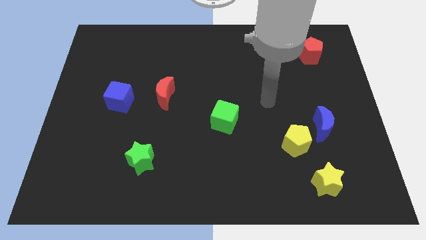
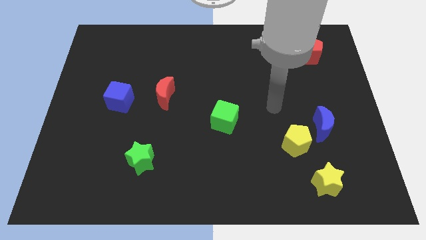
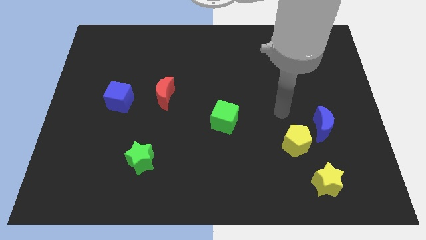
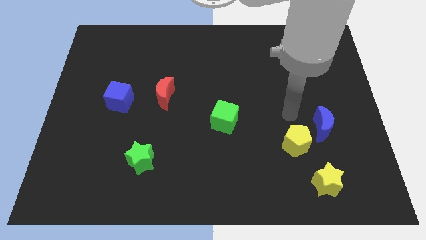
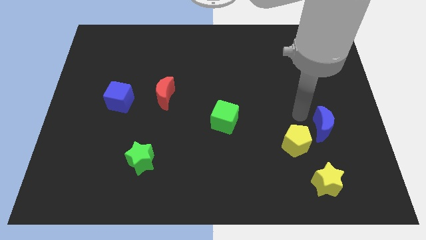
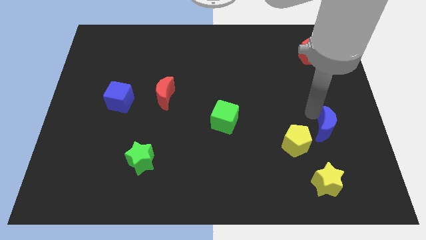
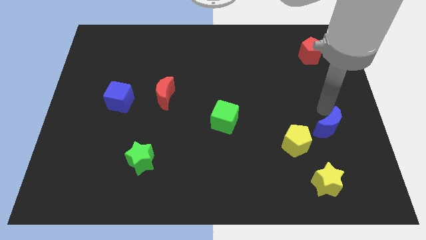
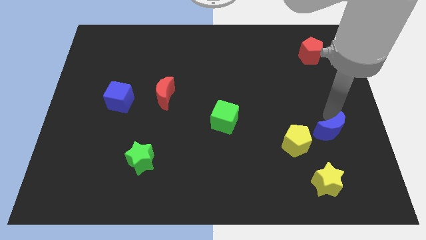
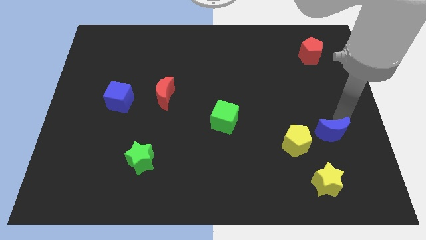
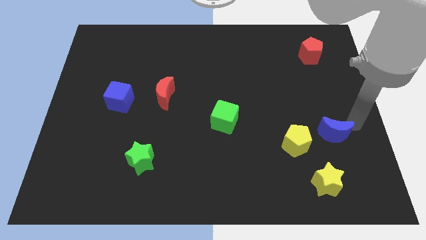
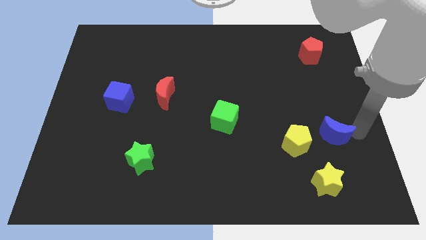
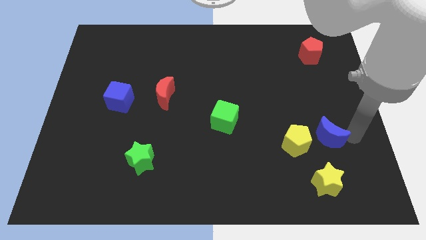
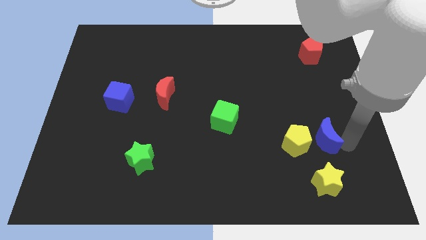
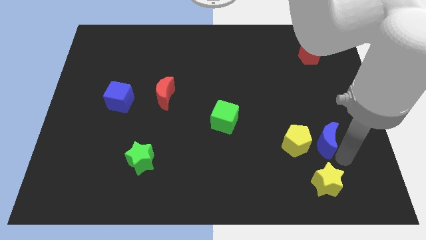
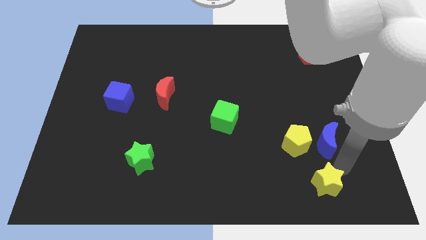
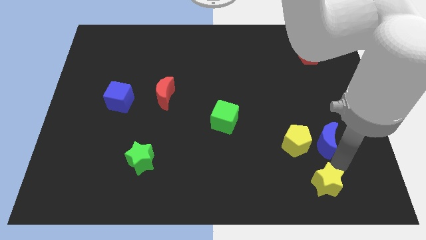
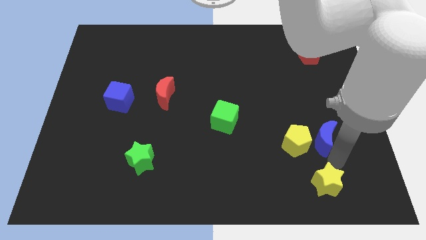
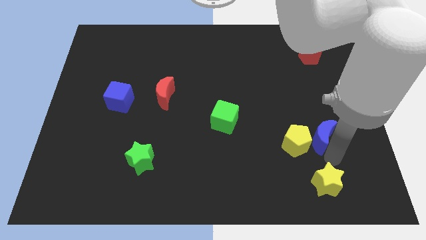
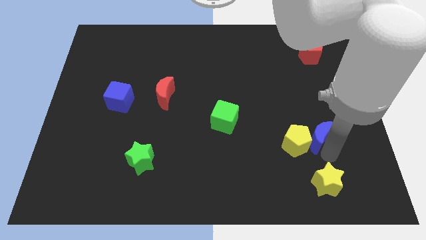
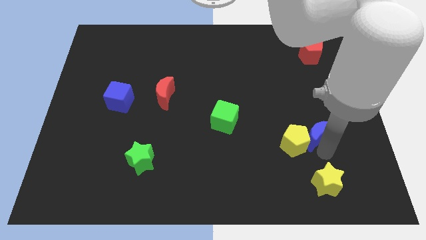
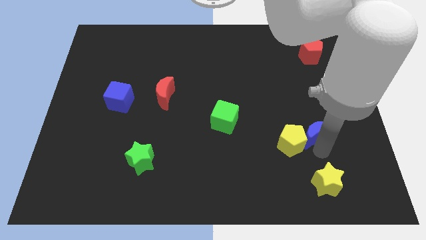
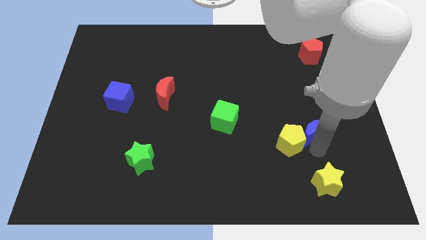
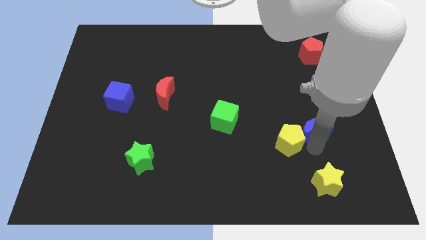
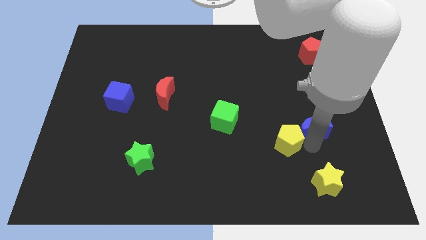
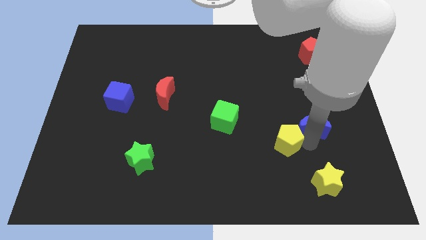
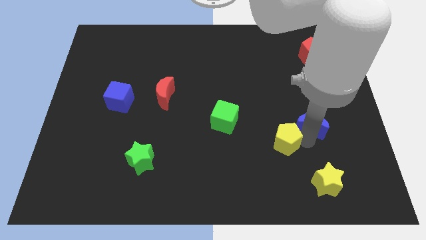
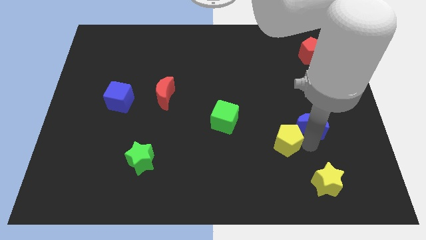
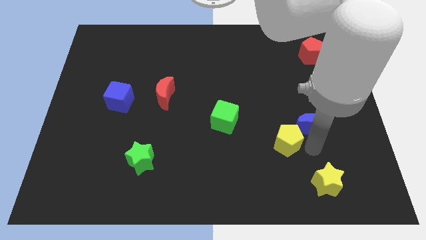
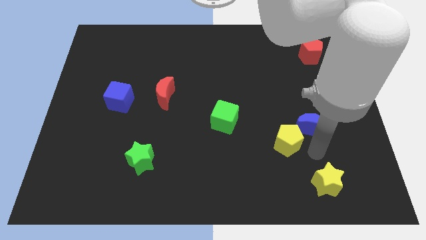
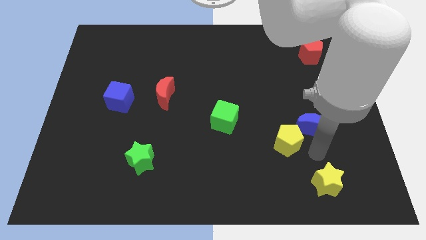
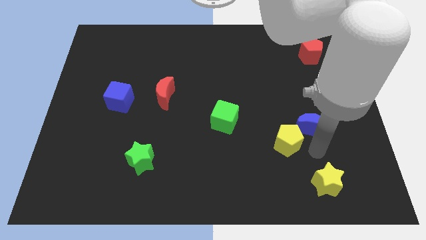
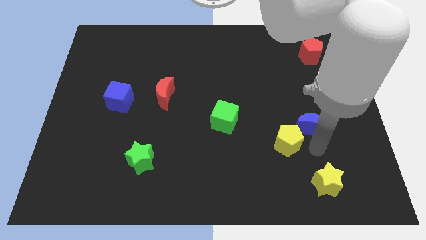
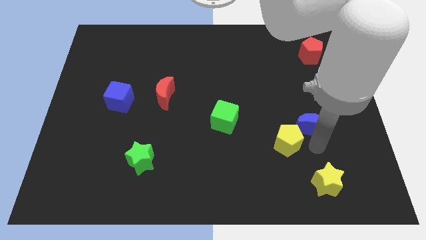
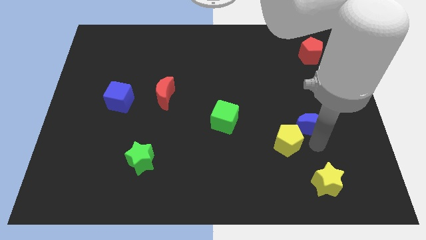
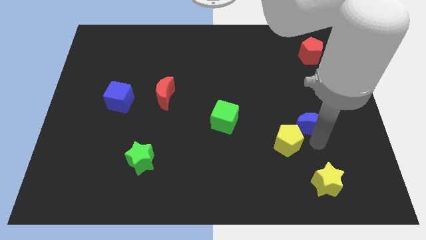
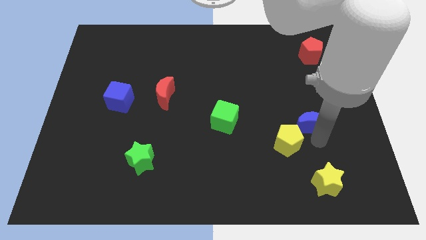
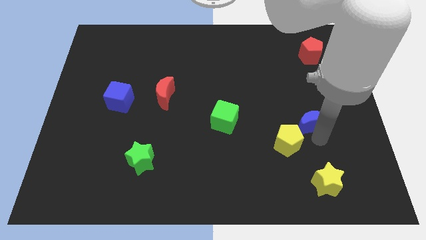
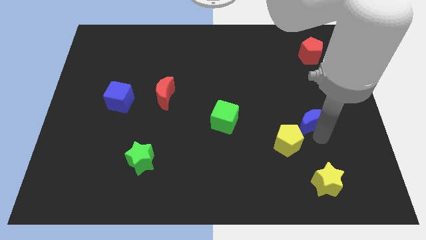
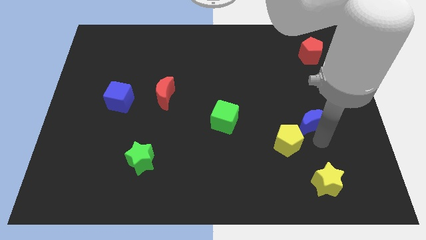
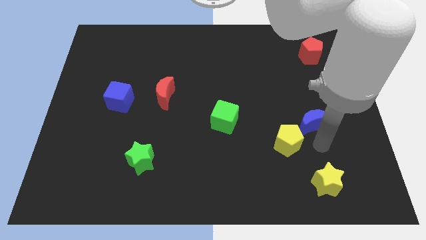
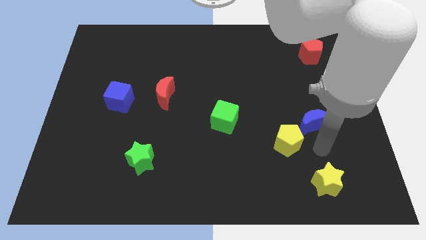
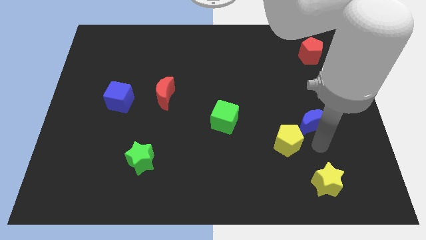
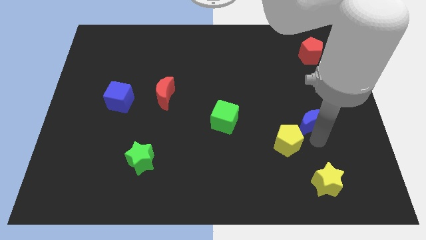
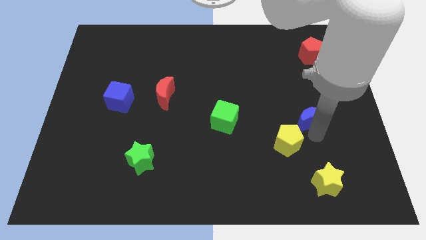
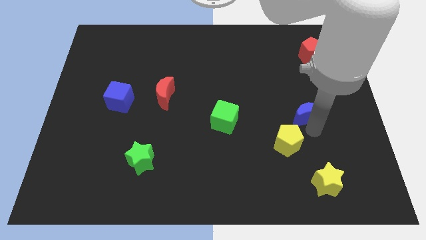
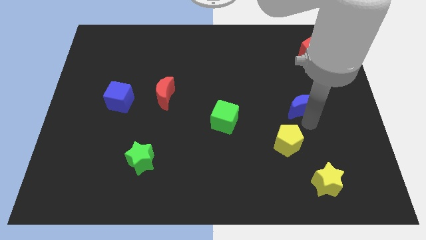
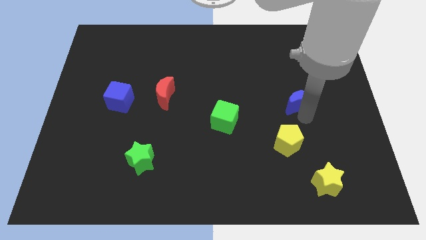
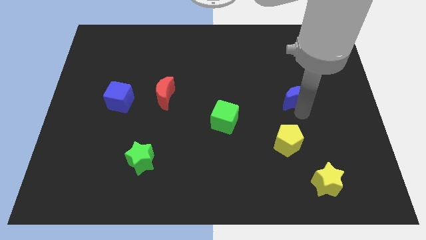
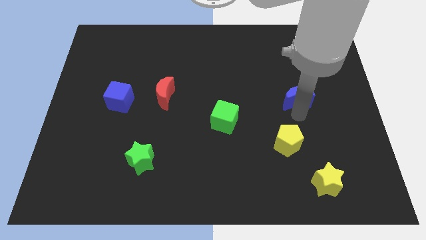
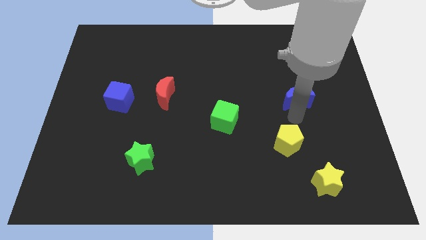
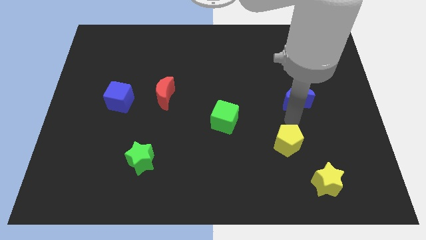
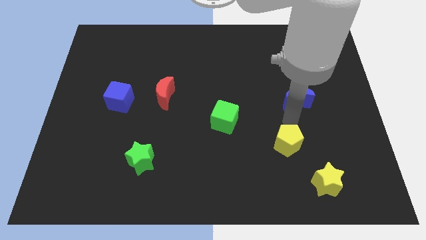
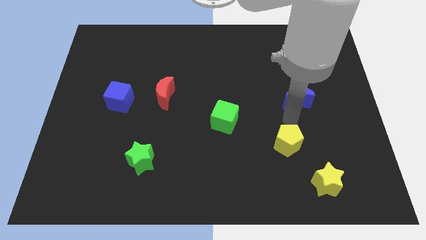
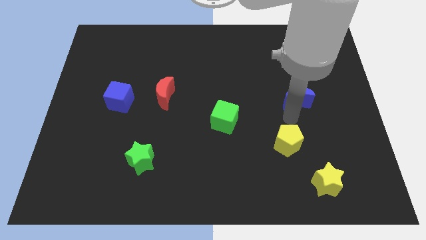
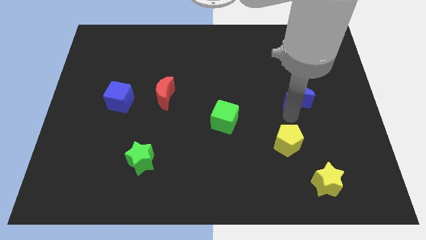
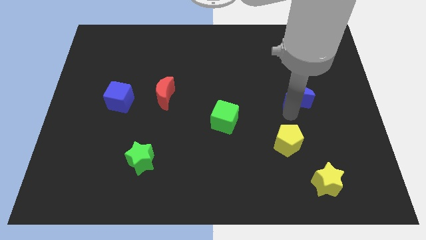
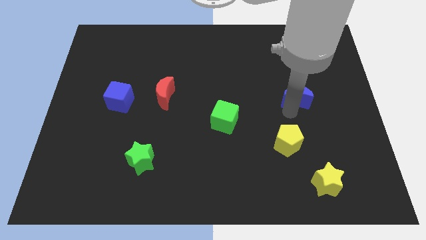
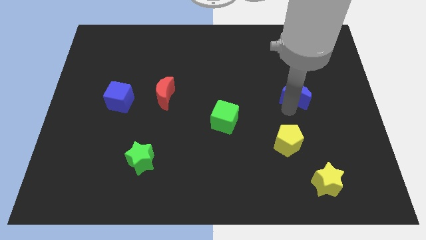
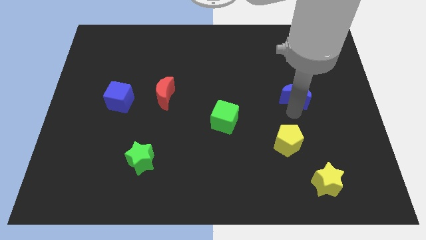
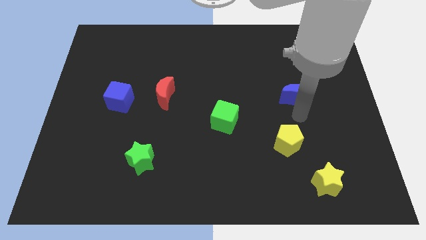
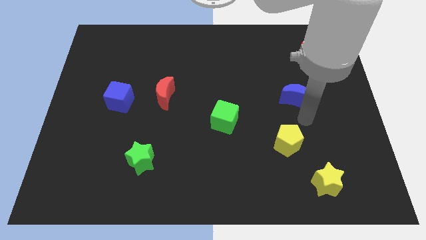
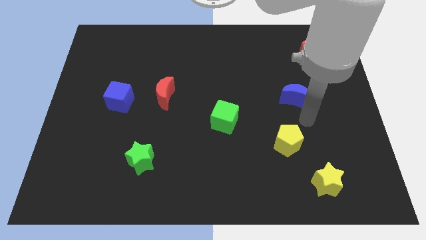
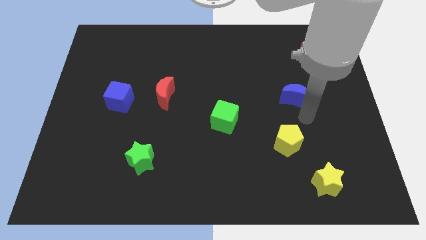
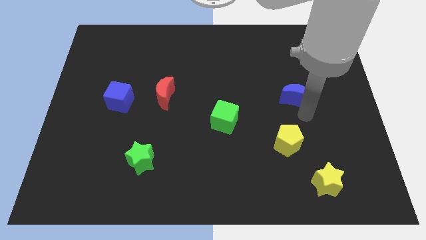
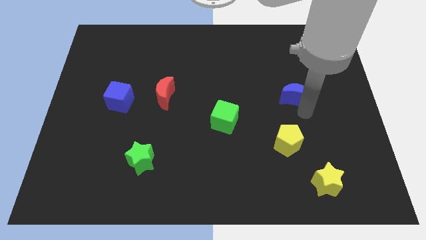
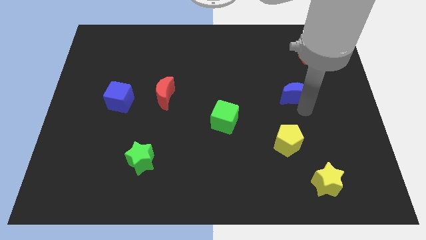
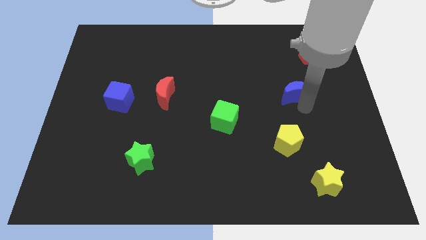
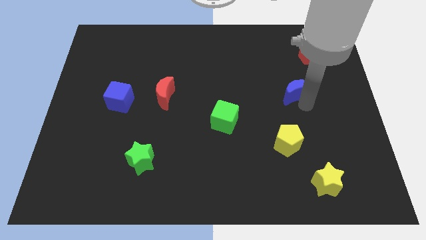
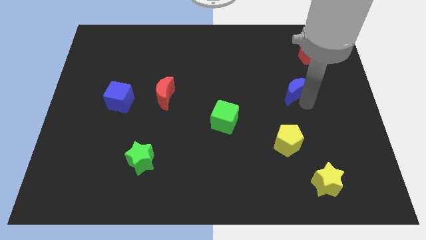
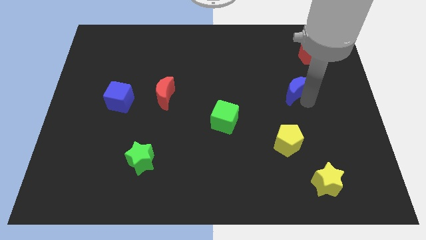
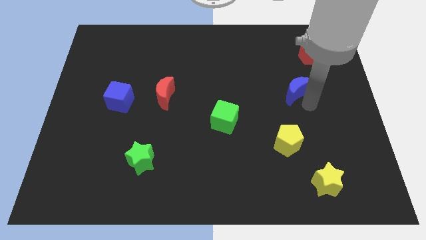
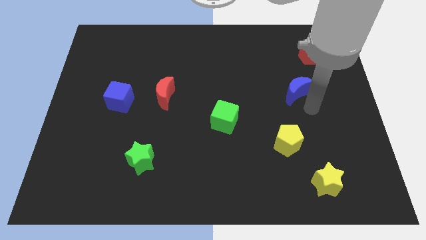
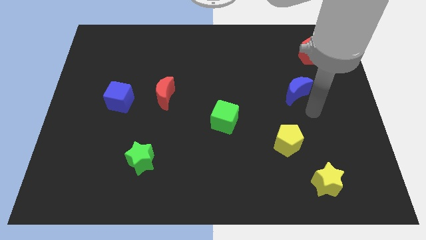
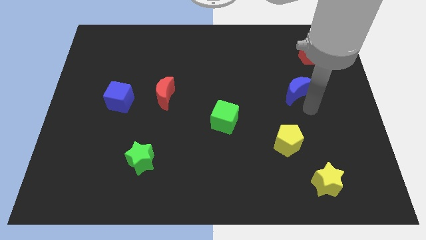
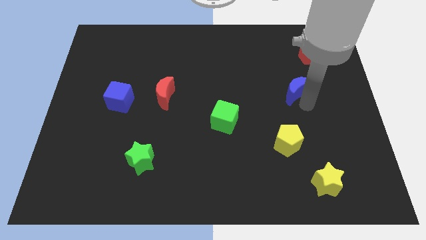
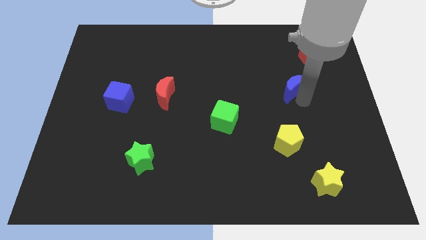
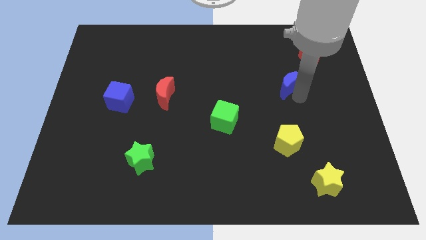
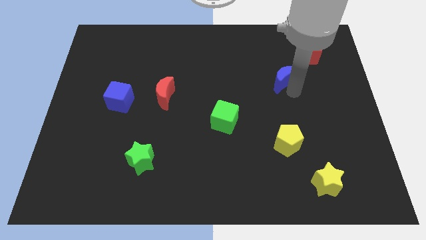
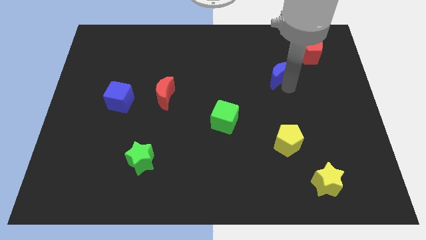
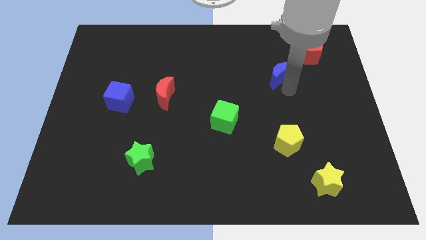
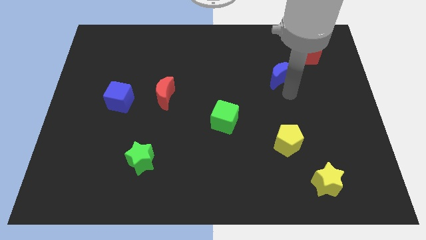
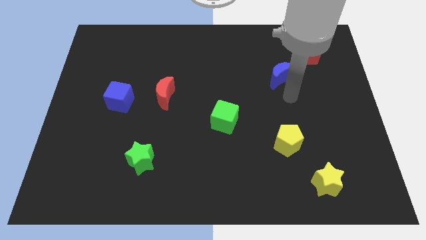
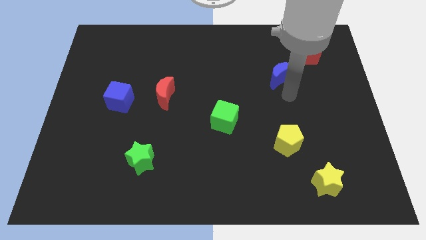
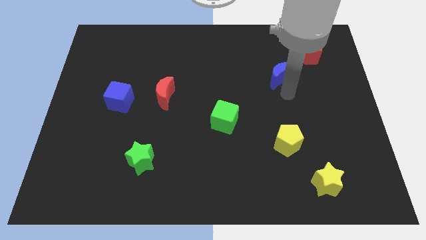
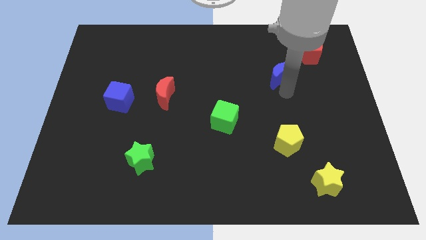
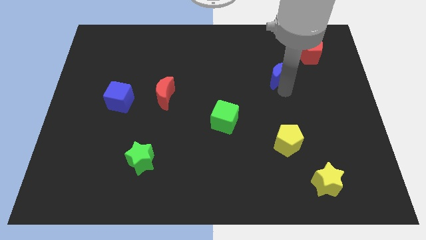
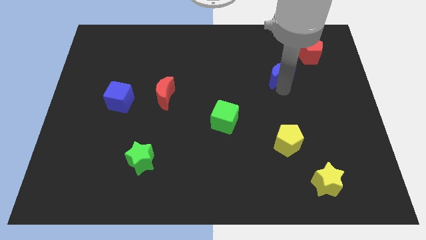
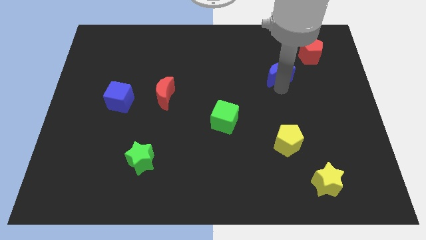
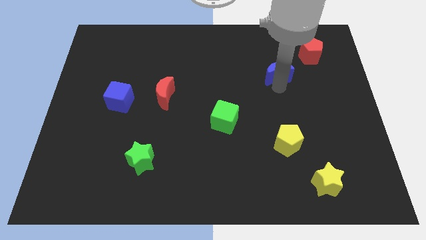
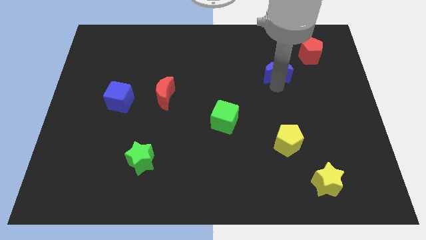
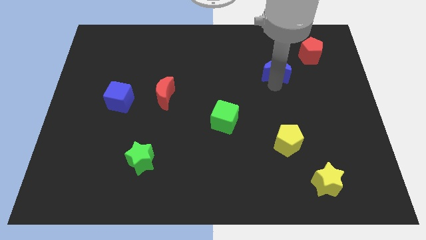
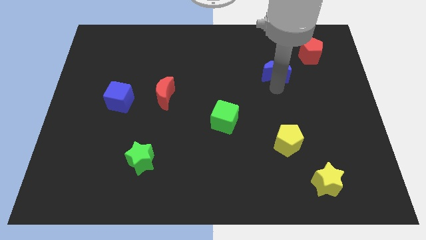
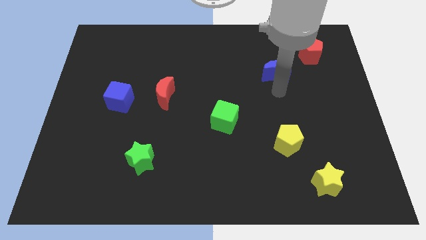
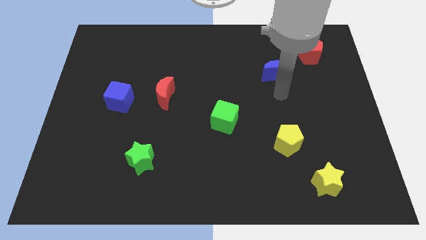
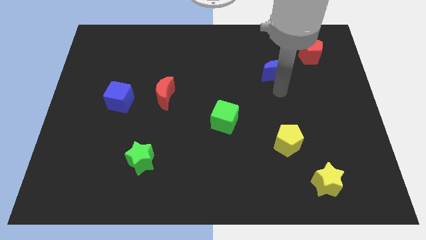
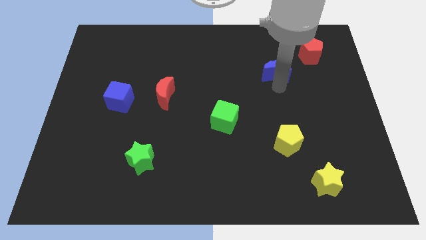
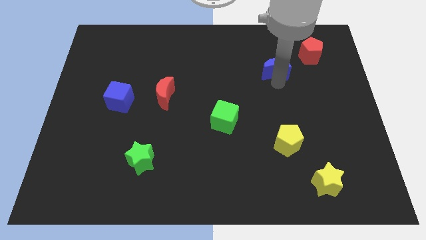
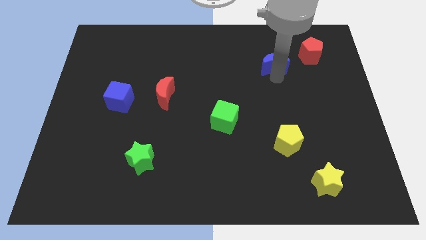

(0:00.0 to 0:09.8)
move the blue moon to the left of the red pentagon
